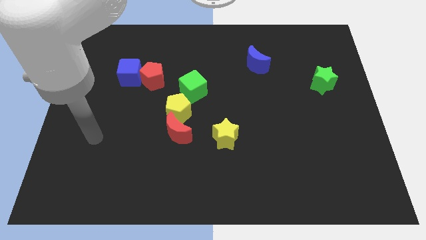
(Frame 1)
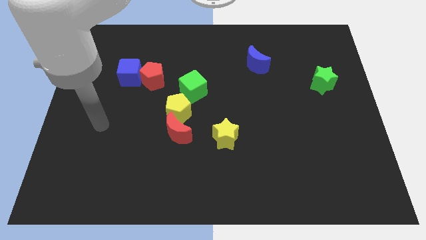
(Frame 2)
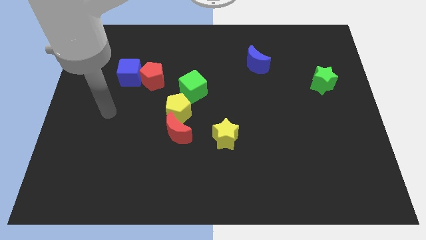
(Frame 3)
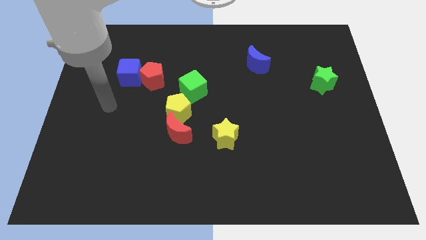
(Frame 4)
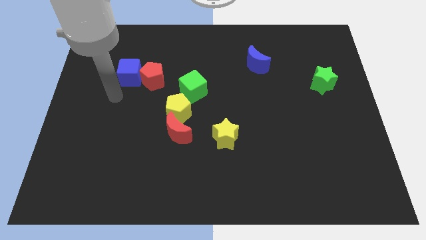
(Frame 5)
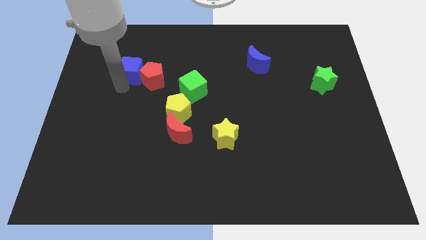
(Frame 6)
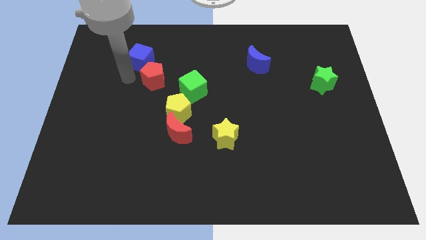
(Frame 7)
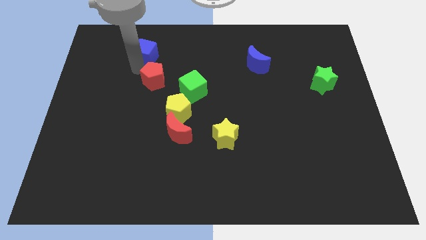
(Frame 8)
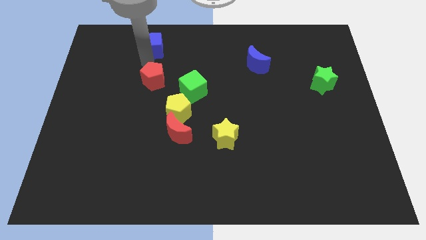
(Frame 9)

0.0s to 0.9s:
separate the red pentagon from the blue cube

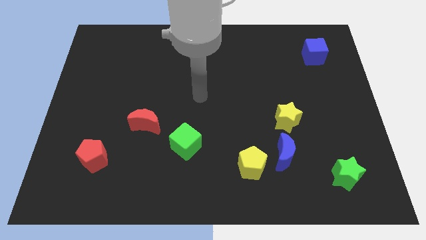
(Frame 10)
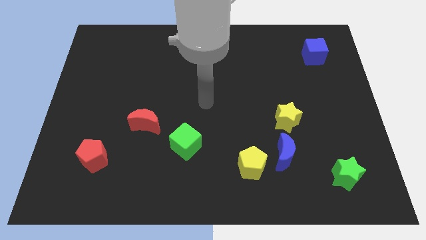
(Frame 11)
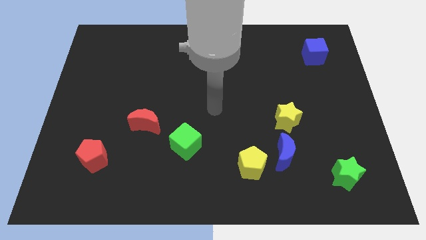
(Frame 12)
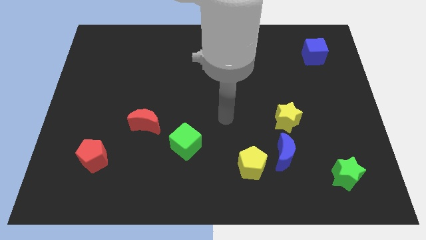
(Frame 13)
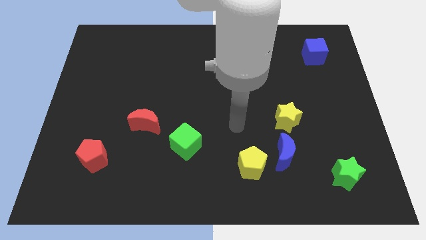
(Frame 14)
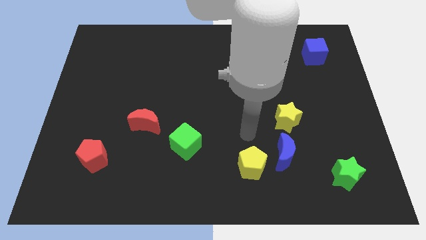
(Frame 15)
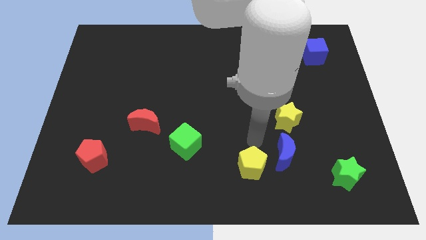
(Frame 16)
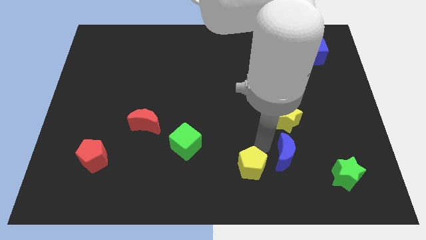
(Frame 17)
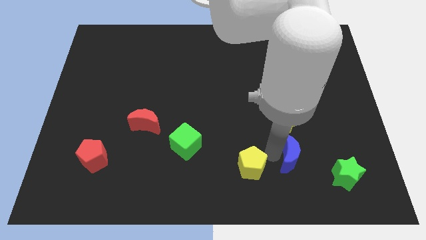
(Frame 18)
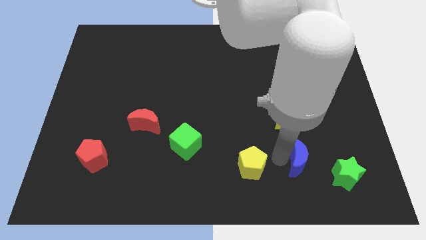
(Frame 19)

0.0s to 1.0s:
separate the yellow pentagon from the blue moon

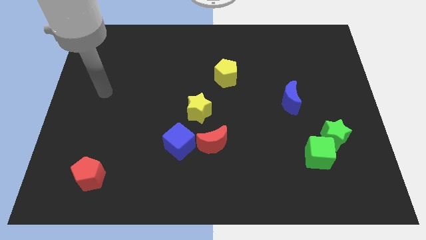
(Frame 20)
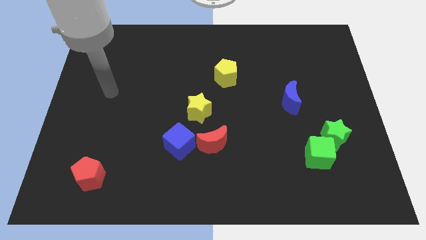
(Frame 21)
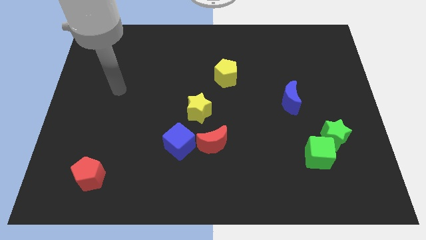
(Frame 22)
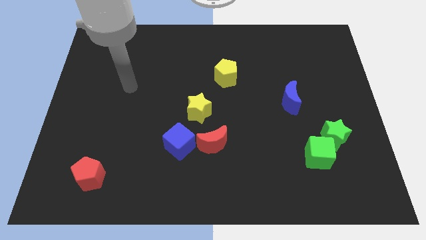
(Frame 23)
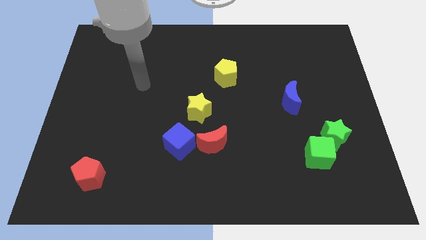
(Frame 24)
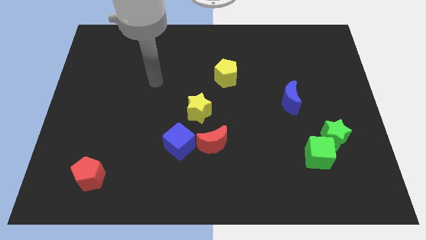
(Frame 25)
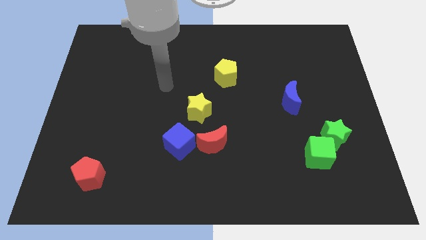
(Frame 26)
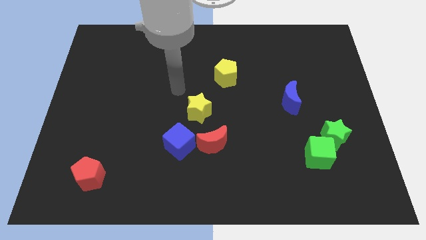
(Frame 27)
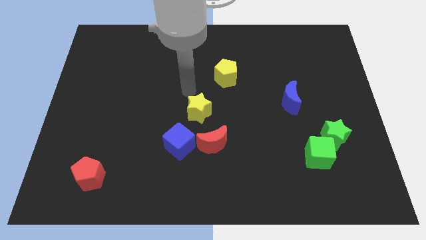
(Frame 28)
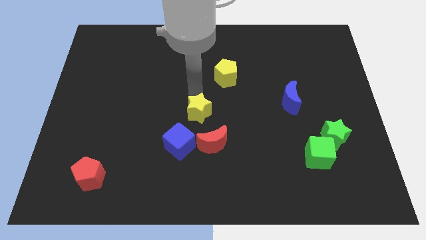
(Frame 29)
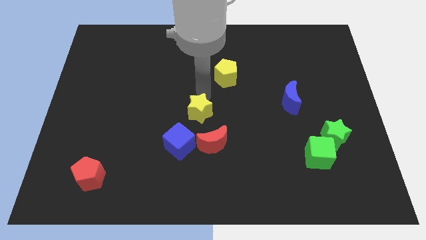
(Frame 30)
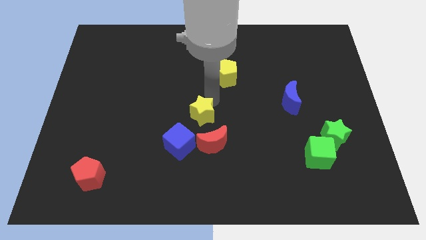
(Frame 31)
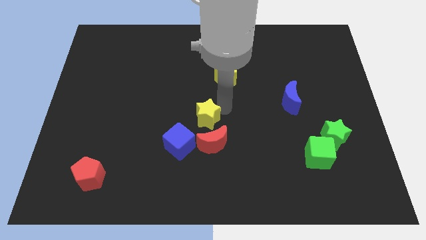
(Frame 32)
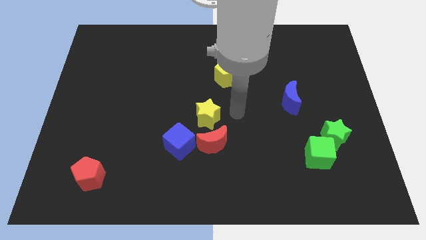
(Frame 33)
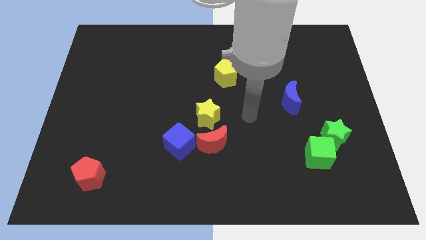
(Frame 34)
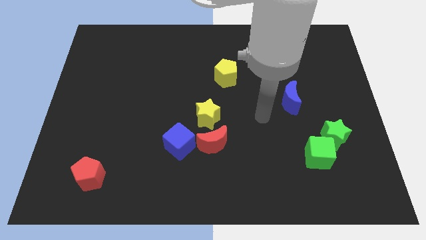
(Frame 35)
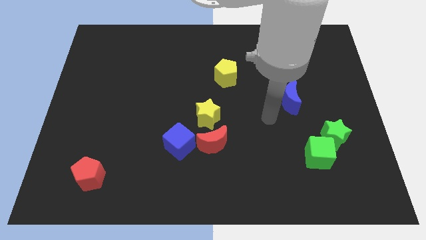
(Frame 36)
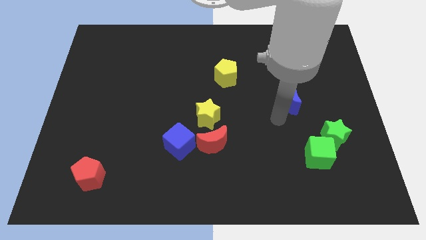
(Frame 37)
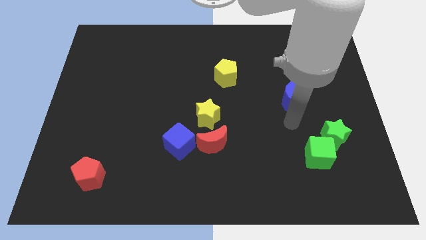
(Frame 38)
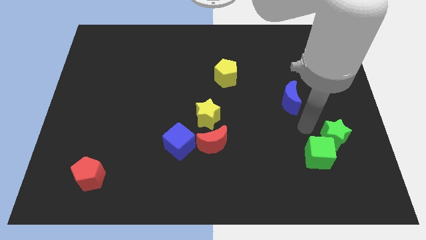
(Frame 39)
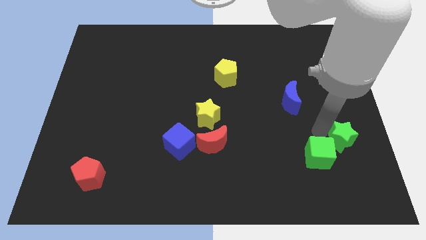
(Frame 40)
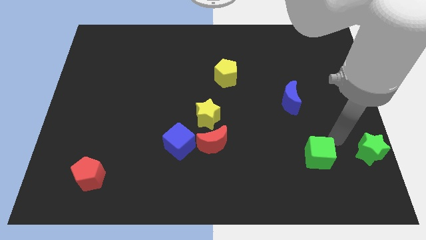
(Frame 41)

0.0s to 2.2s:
pull the green cube apart from the green star

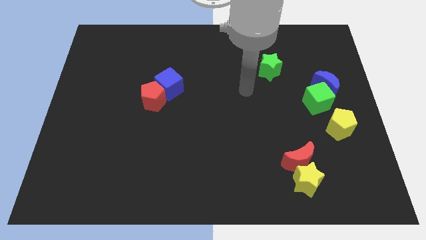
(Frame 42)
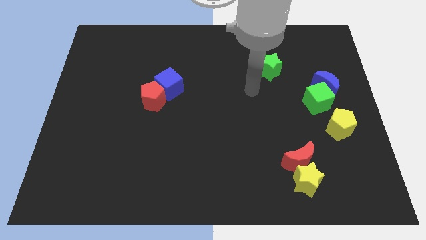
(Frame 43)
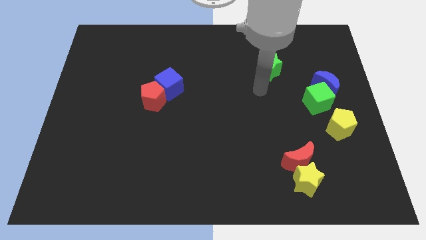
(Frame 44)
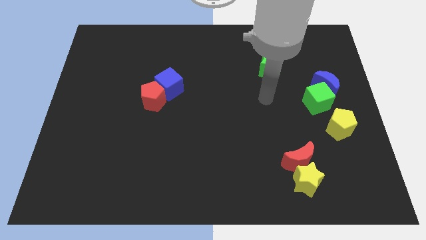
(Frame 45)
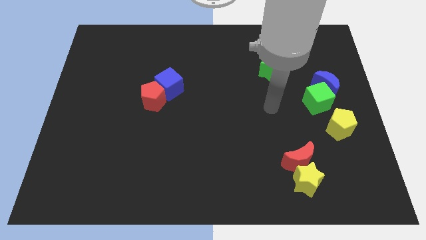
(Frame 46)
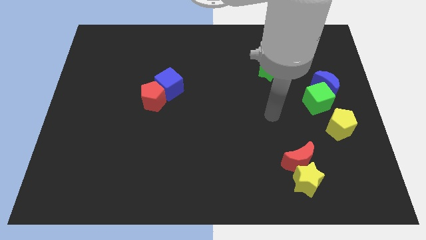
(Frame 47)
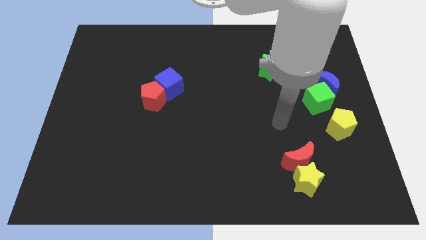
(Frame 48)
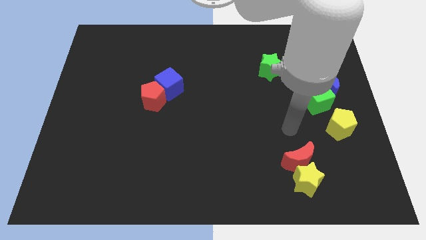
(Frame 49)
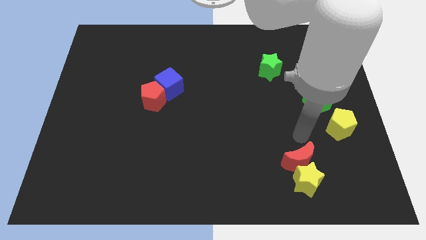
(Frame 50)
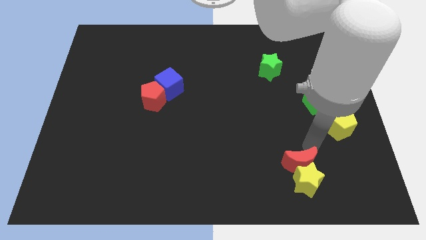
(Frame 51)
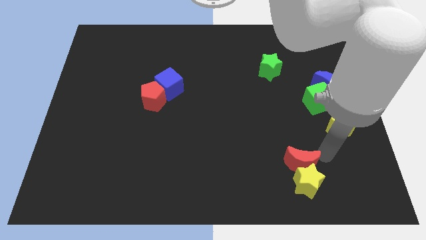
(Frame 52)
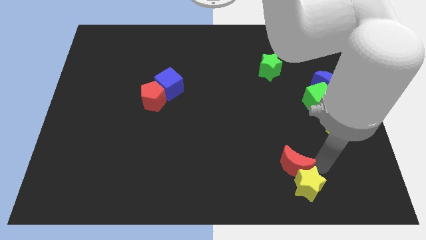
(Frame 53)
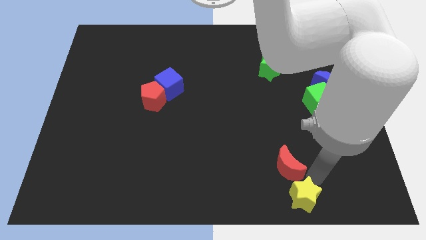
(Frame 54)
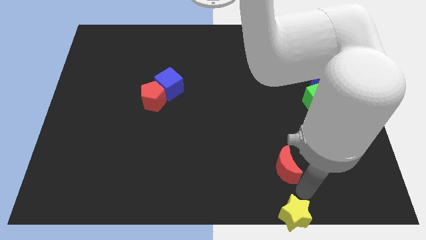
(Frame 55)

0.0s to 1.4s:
pull the red moon apart from the yellow star

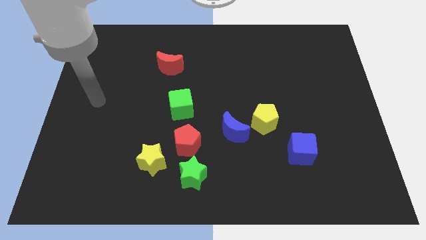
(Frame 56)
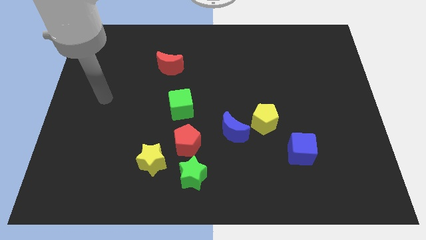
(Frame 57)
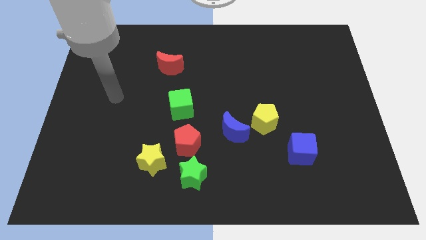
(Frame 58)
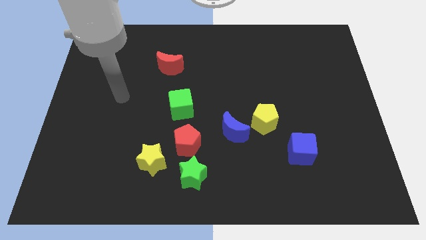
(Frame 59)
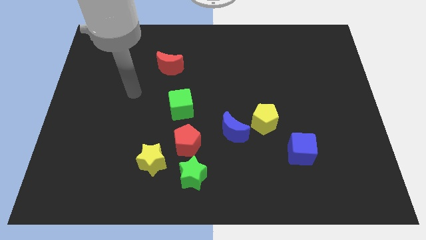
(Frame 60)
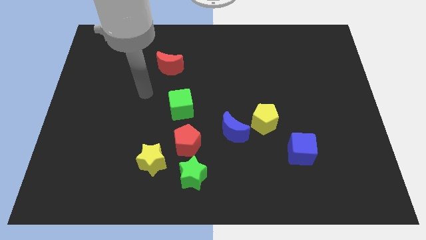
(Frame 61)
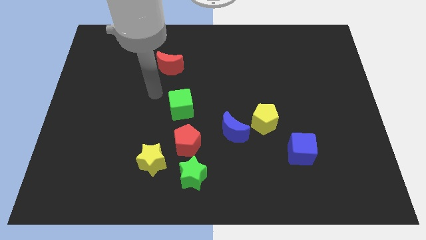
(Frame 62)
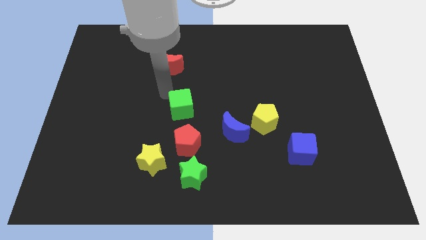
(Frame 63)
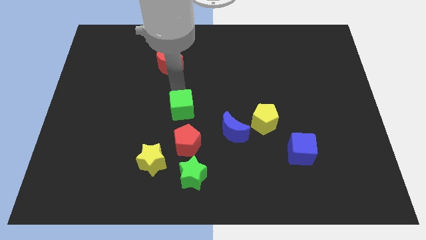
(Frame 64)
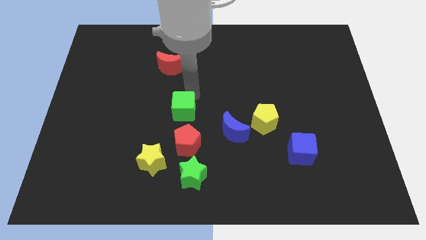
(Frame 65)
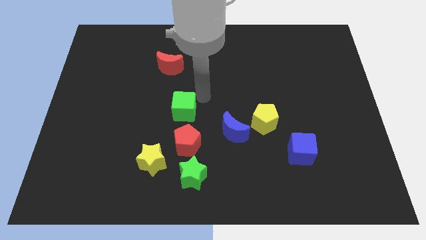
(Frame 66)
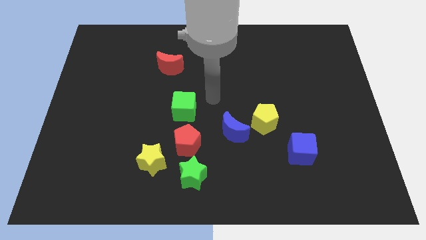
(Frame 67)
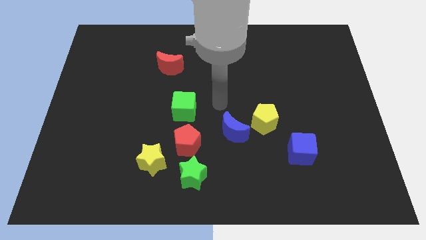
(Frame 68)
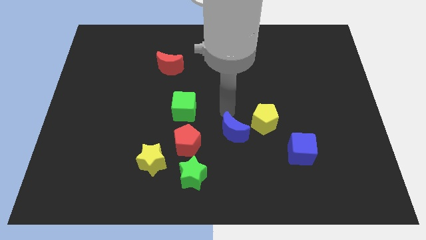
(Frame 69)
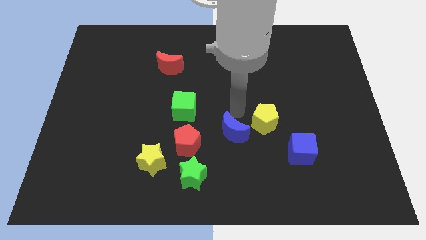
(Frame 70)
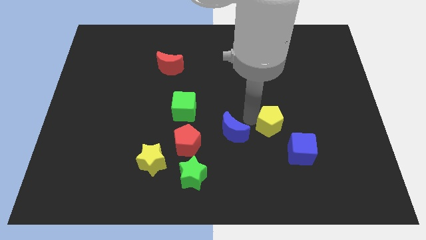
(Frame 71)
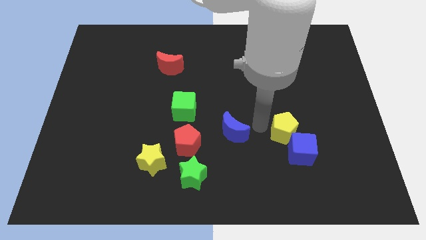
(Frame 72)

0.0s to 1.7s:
pull the blue moon apart from the yellow pentagon

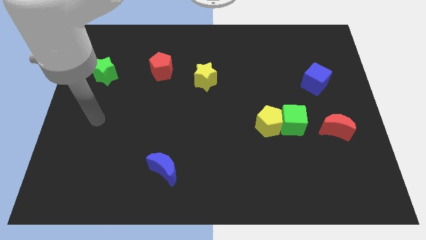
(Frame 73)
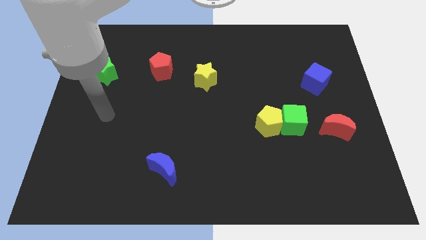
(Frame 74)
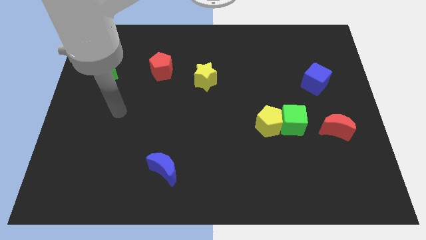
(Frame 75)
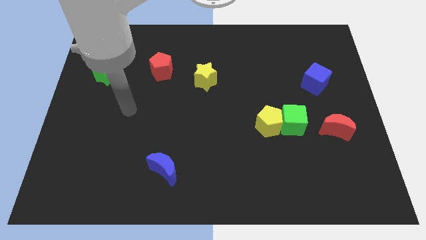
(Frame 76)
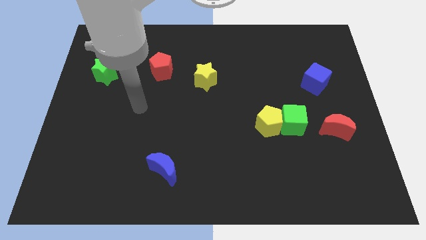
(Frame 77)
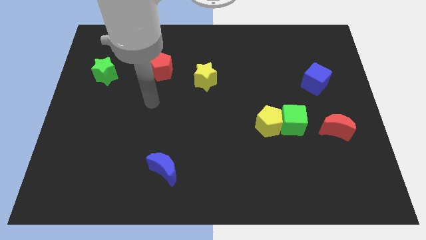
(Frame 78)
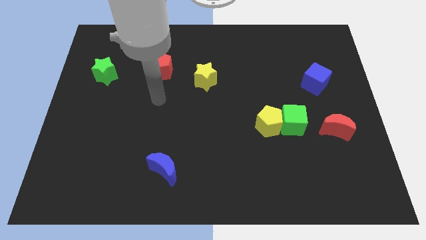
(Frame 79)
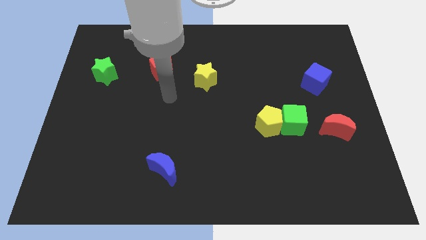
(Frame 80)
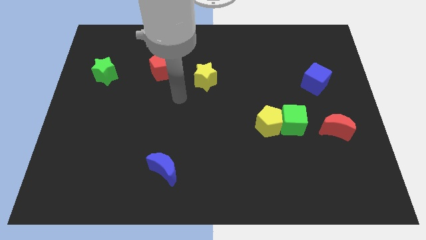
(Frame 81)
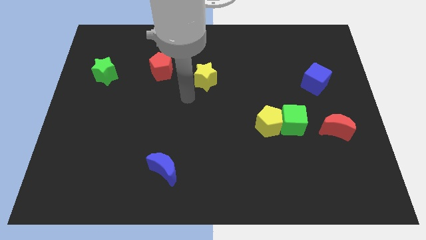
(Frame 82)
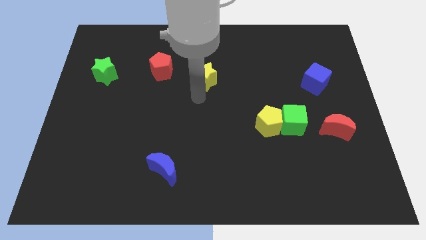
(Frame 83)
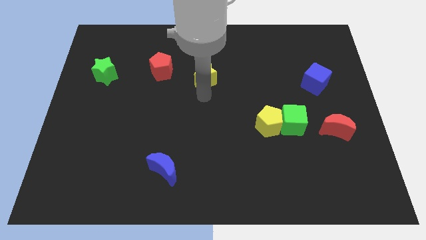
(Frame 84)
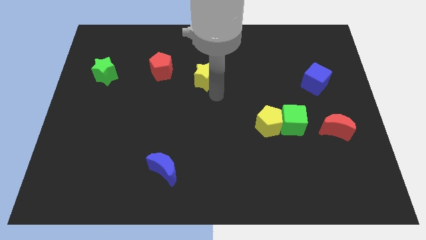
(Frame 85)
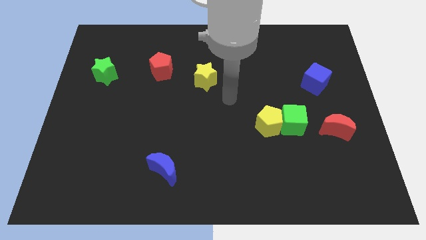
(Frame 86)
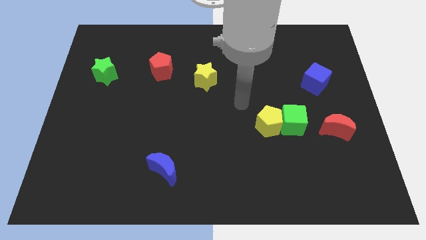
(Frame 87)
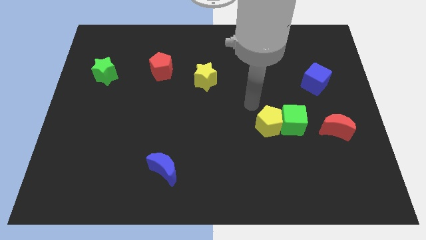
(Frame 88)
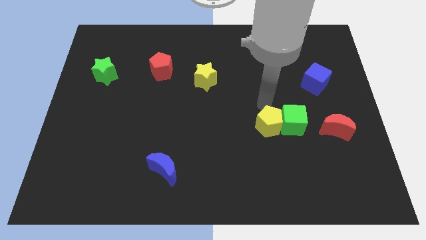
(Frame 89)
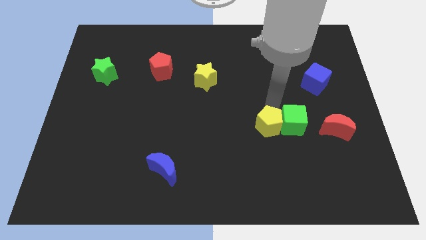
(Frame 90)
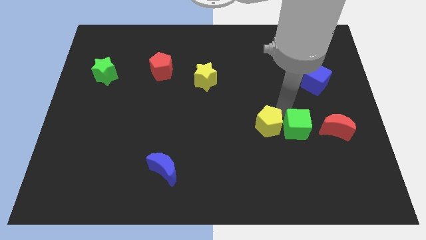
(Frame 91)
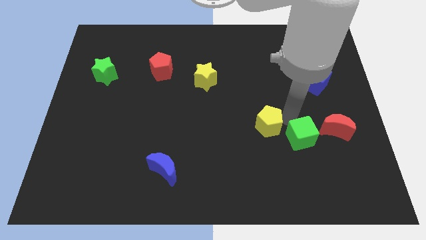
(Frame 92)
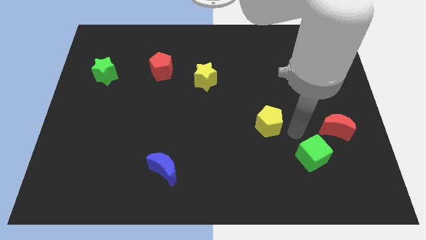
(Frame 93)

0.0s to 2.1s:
separate the yellow pentagon from the green cube
